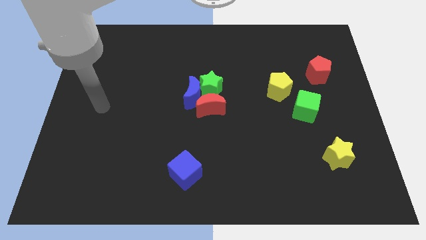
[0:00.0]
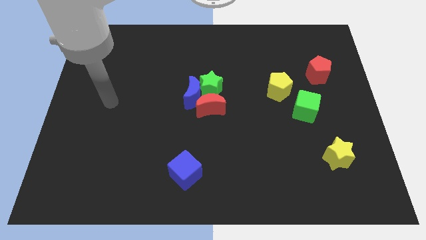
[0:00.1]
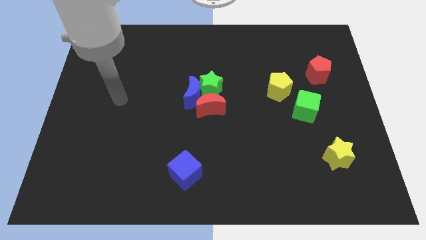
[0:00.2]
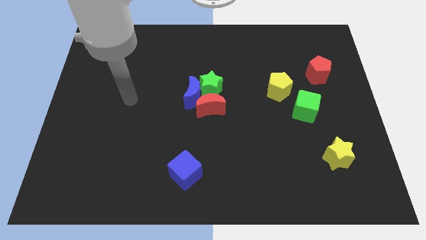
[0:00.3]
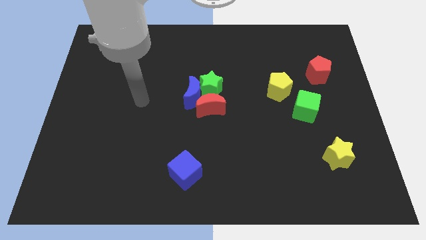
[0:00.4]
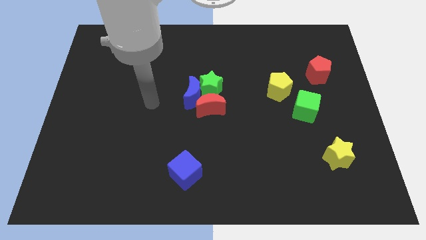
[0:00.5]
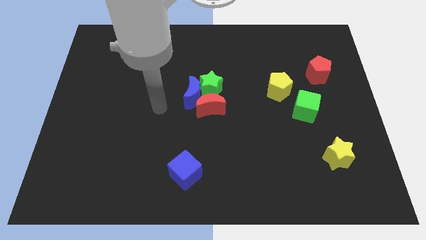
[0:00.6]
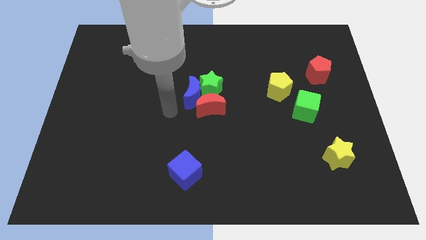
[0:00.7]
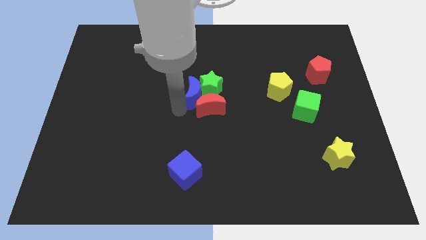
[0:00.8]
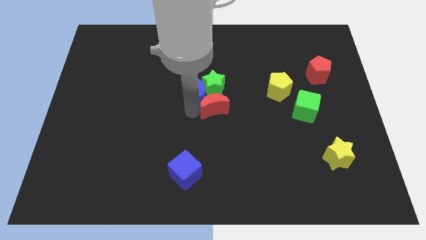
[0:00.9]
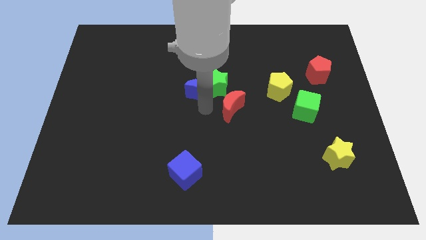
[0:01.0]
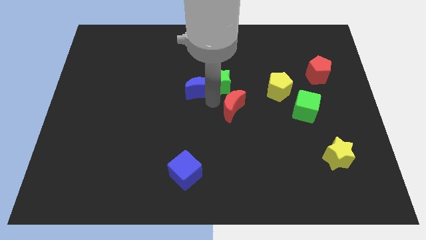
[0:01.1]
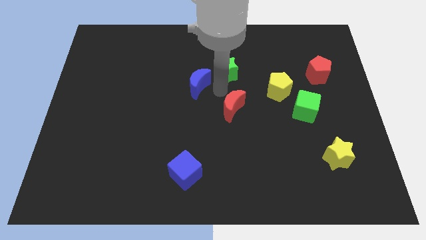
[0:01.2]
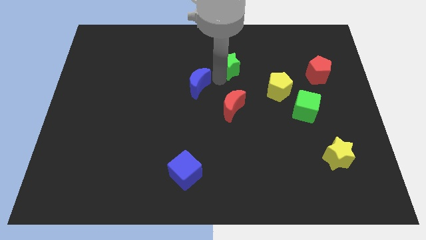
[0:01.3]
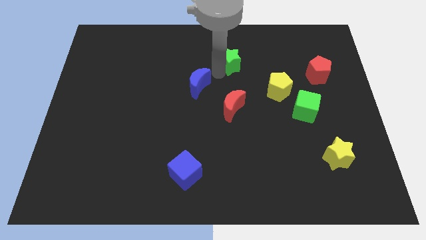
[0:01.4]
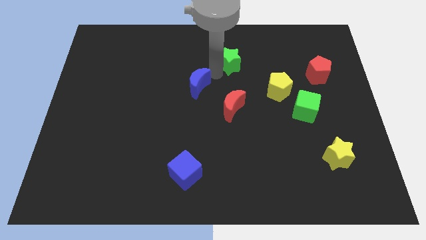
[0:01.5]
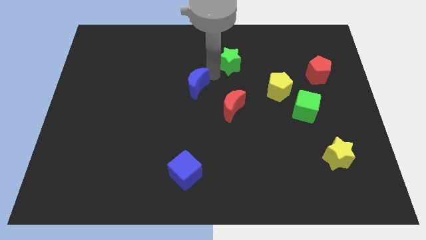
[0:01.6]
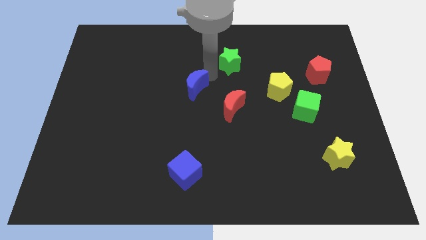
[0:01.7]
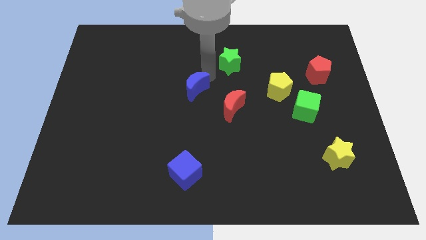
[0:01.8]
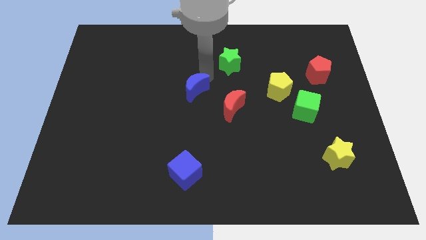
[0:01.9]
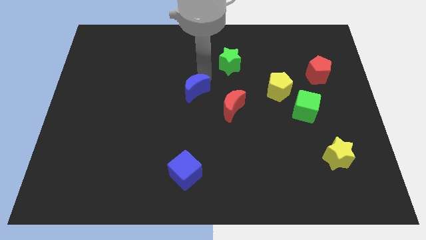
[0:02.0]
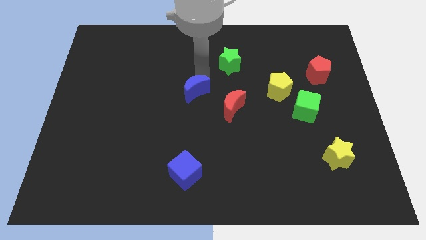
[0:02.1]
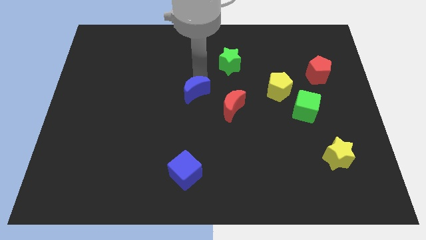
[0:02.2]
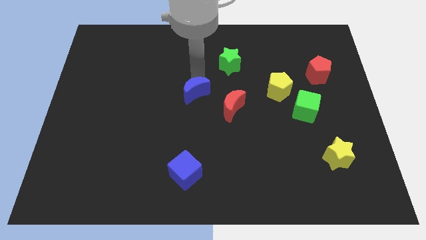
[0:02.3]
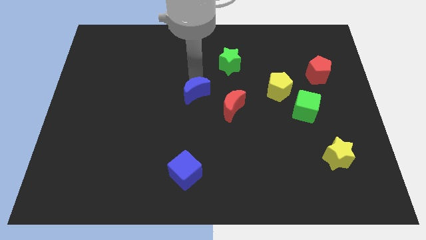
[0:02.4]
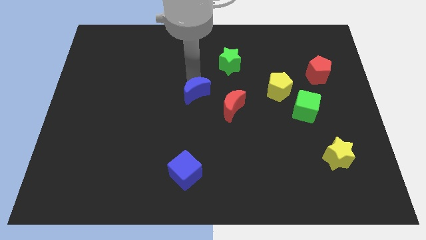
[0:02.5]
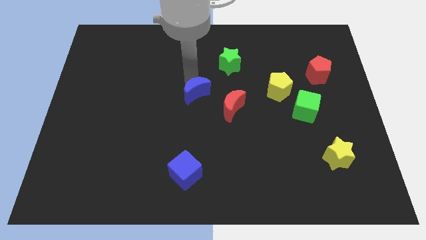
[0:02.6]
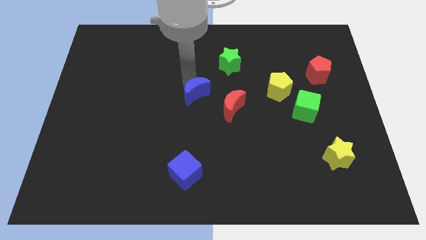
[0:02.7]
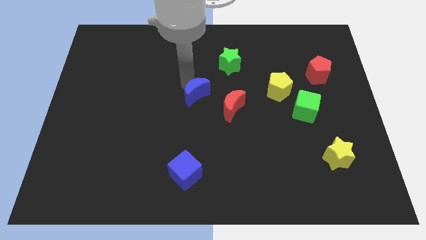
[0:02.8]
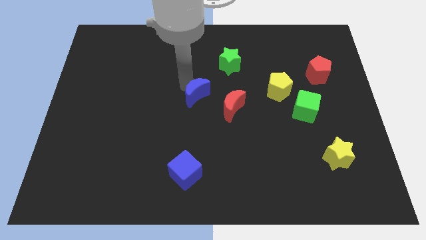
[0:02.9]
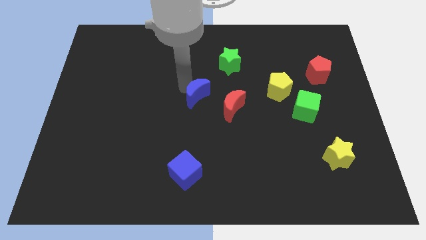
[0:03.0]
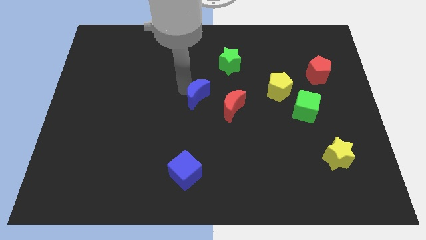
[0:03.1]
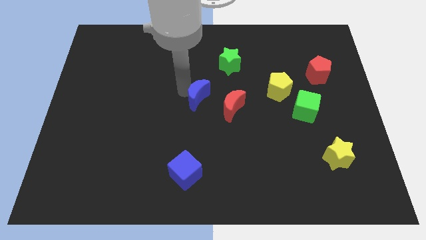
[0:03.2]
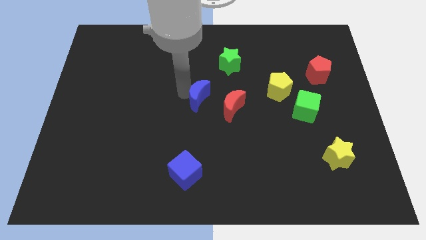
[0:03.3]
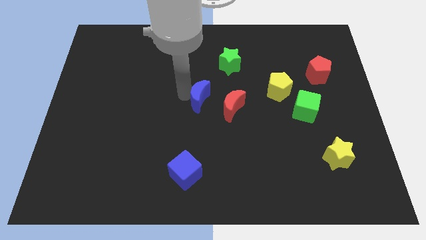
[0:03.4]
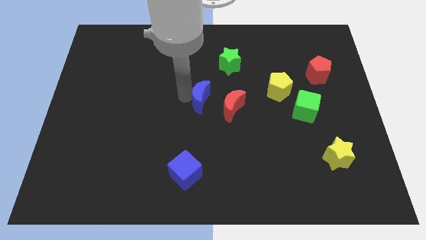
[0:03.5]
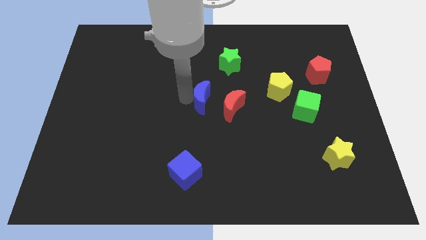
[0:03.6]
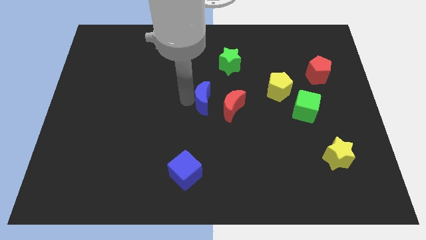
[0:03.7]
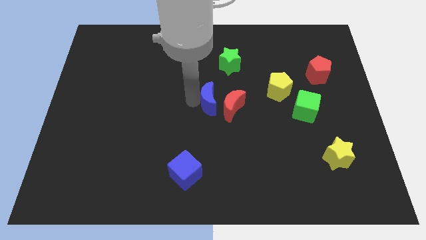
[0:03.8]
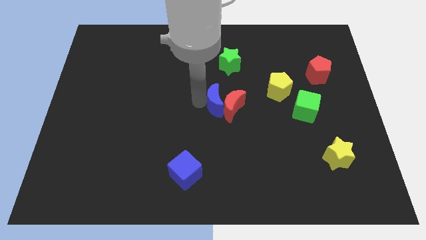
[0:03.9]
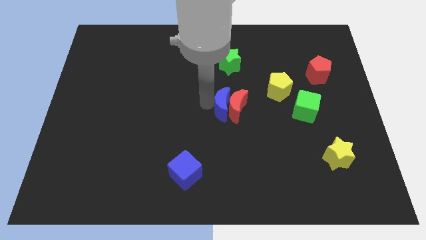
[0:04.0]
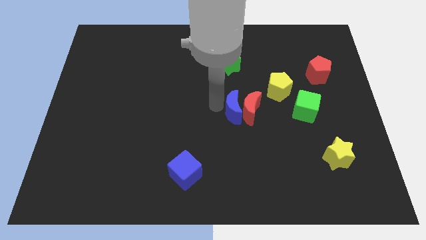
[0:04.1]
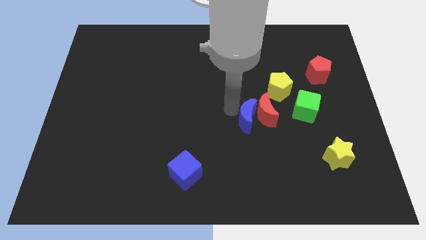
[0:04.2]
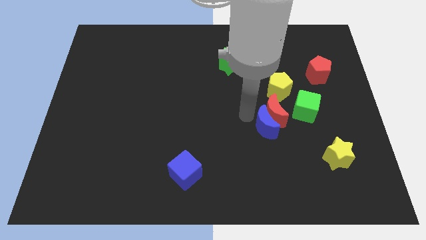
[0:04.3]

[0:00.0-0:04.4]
move the blue moon away from the green star and red moon

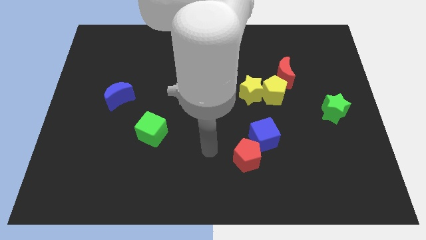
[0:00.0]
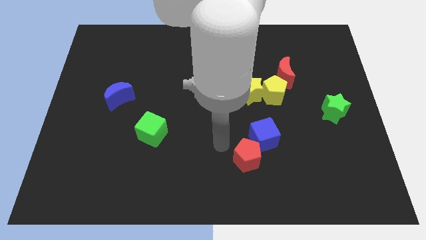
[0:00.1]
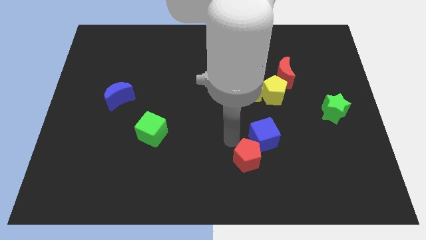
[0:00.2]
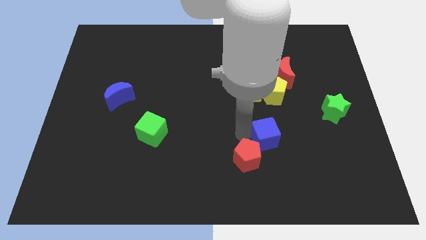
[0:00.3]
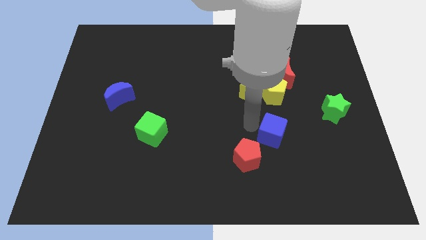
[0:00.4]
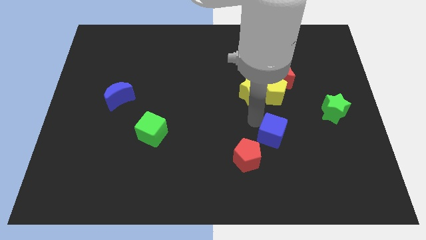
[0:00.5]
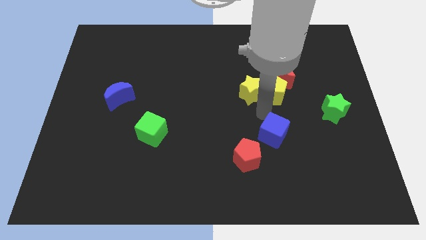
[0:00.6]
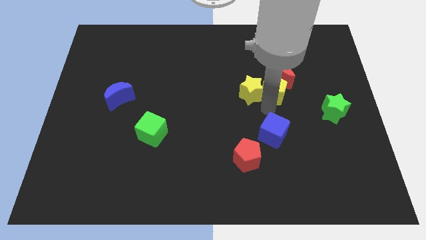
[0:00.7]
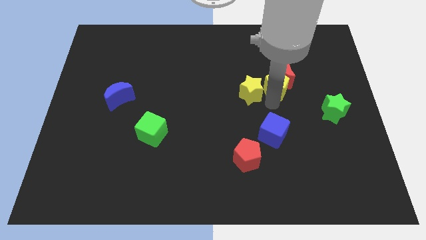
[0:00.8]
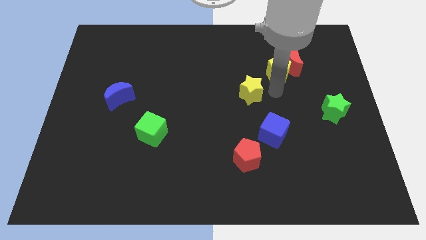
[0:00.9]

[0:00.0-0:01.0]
separate the yellow star from the yellow pentagon

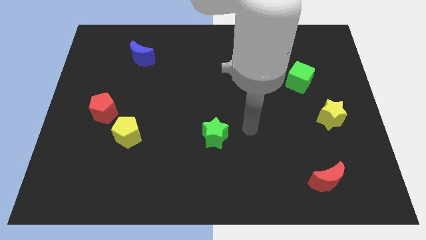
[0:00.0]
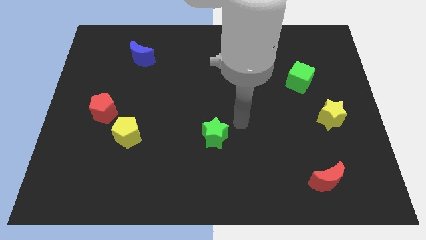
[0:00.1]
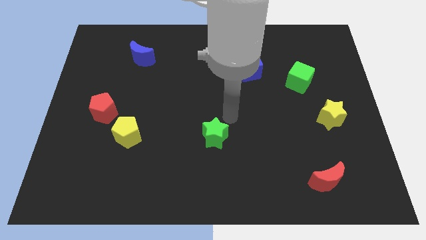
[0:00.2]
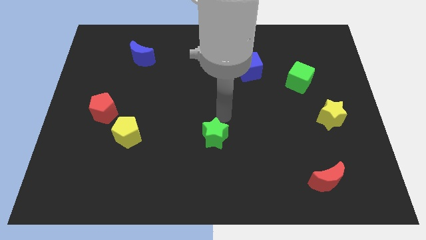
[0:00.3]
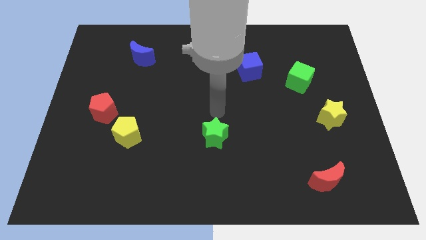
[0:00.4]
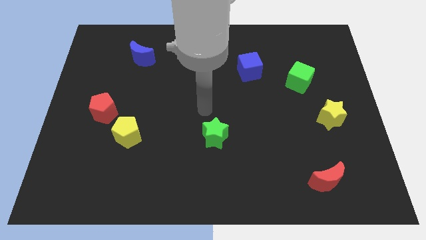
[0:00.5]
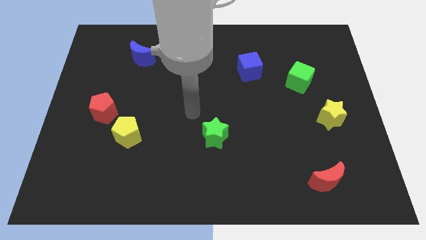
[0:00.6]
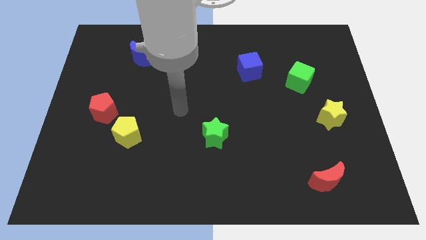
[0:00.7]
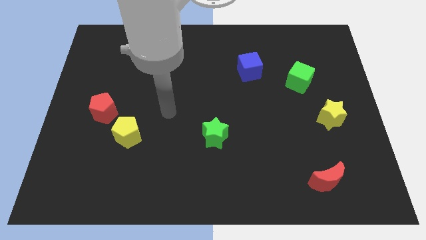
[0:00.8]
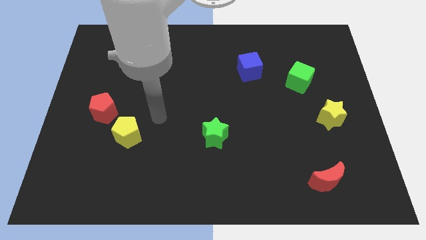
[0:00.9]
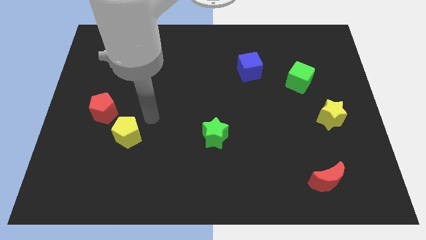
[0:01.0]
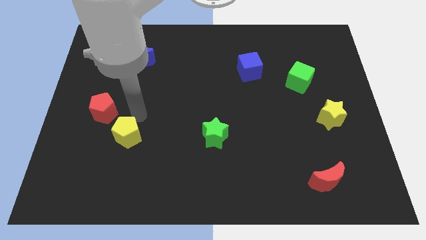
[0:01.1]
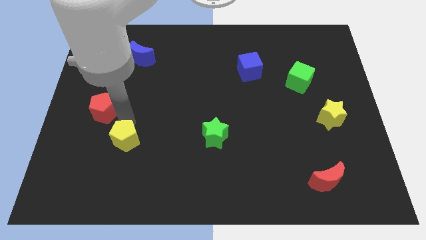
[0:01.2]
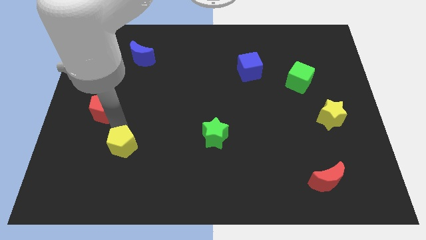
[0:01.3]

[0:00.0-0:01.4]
move the red pentagon away from the yellow pentagon

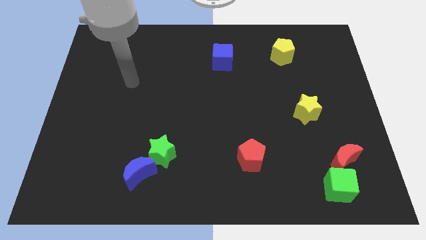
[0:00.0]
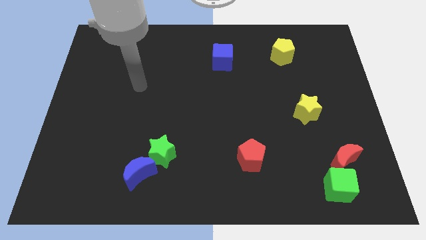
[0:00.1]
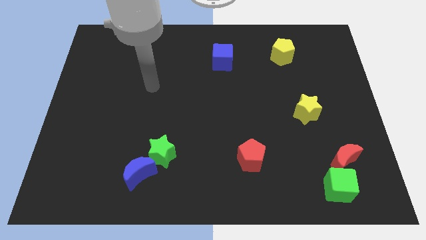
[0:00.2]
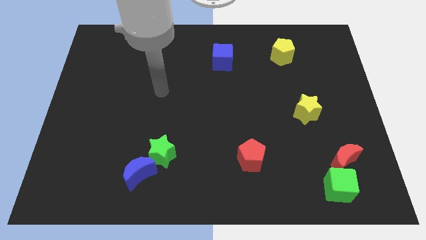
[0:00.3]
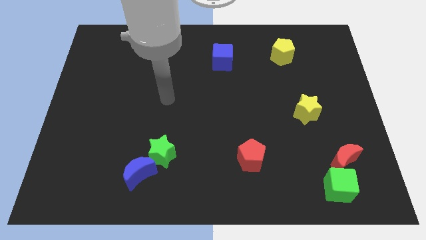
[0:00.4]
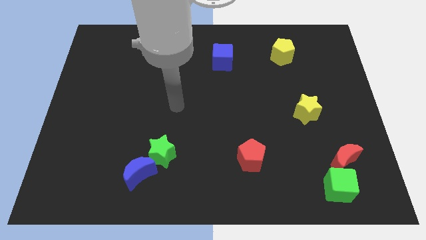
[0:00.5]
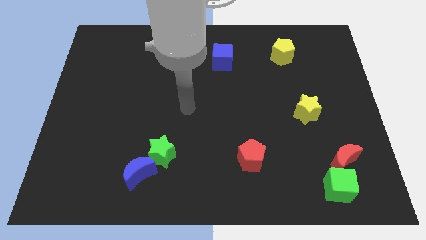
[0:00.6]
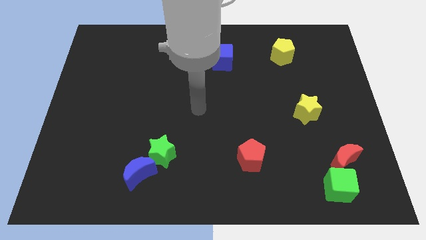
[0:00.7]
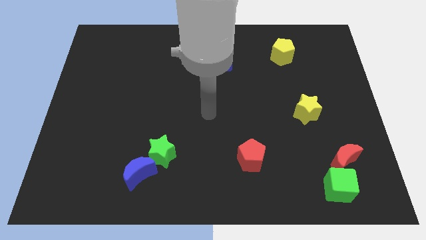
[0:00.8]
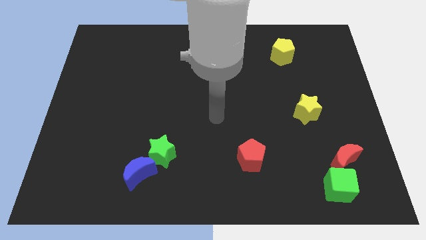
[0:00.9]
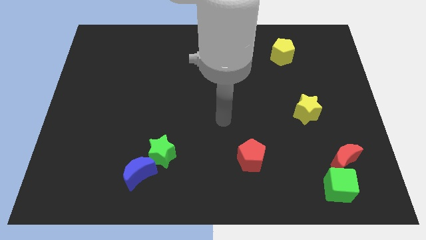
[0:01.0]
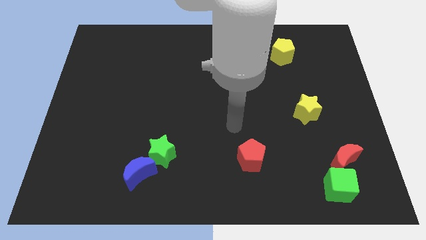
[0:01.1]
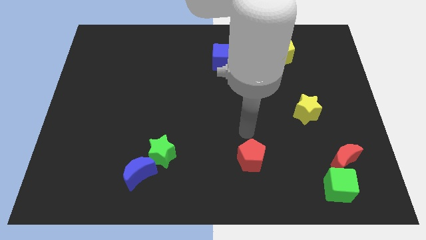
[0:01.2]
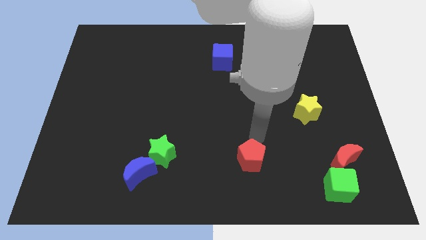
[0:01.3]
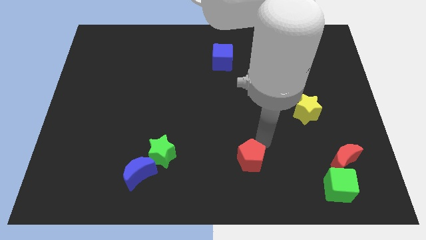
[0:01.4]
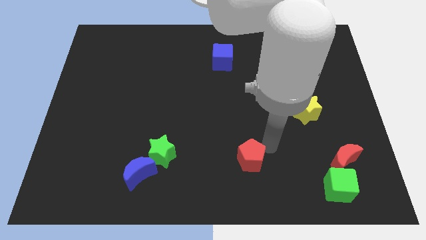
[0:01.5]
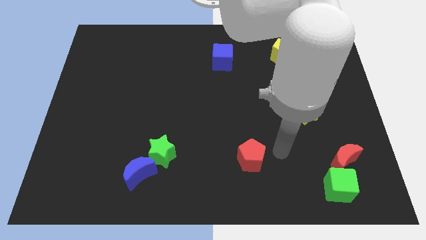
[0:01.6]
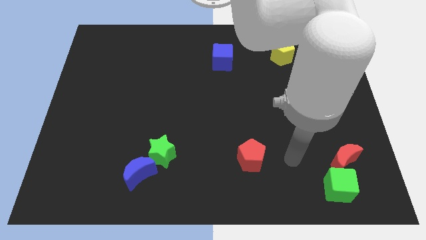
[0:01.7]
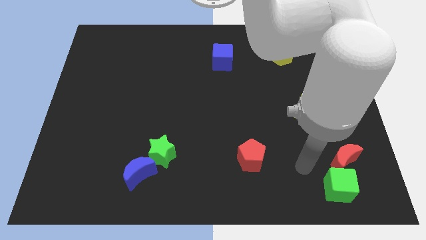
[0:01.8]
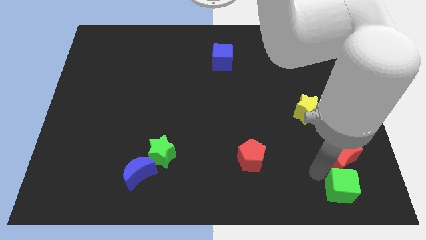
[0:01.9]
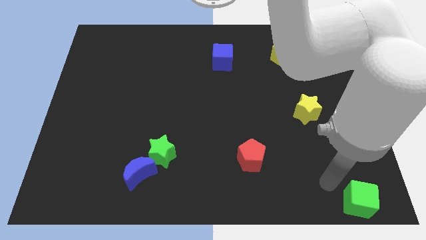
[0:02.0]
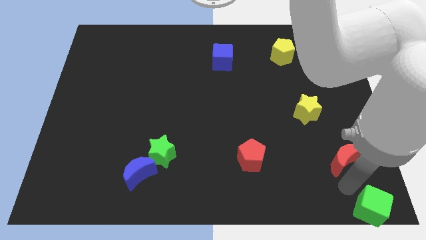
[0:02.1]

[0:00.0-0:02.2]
pull the red moon apart from the green cube

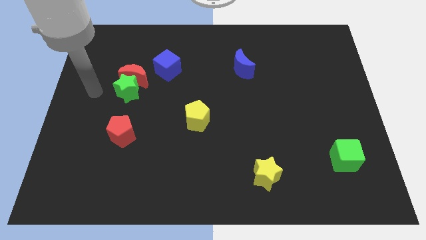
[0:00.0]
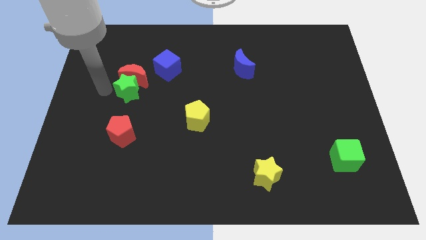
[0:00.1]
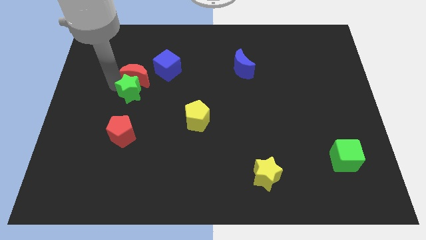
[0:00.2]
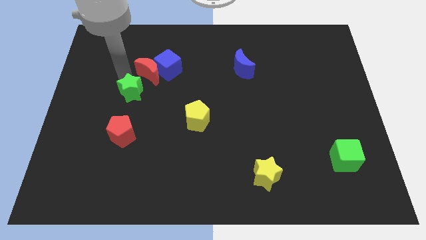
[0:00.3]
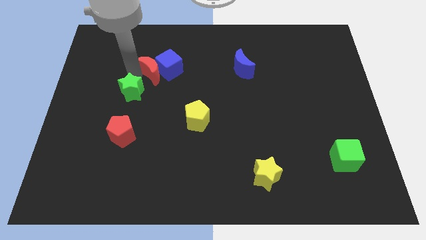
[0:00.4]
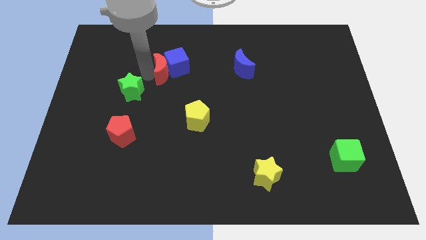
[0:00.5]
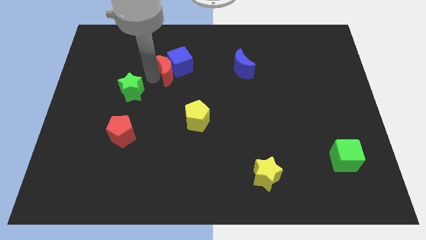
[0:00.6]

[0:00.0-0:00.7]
move the green star away from the red moon
